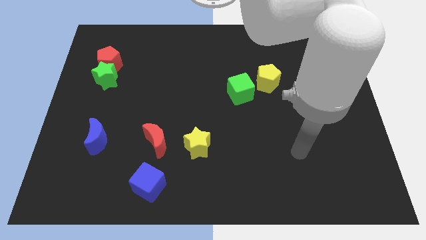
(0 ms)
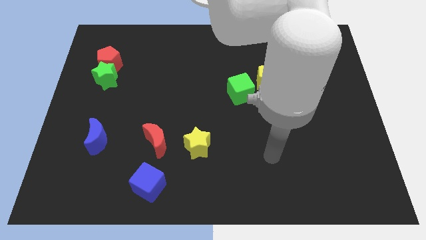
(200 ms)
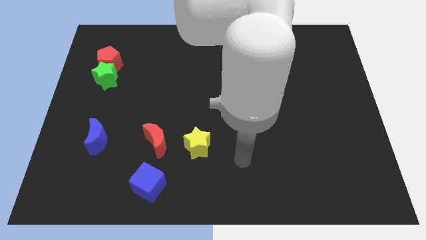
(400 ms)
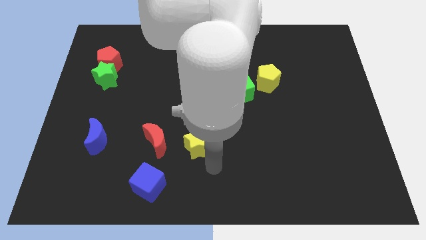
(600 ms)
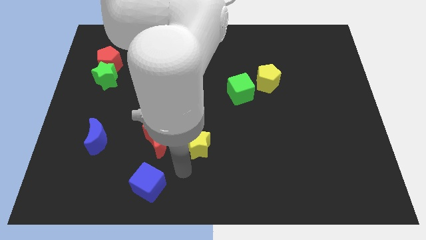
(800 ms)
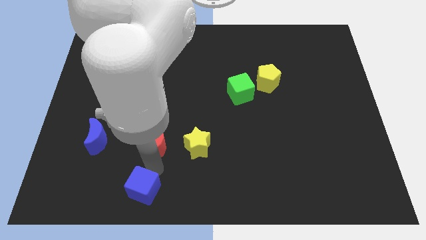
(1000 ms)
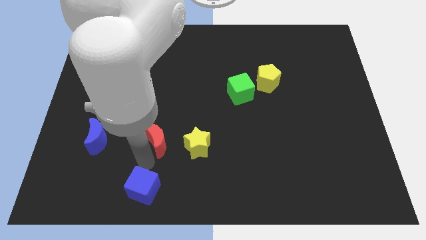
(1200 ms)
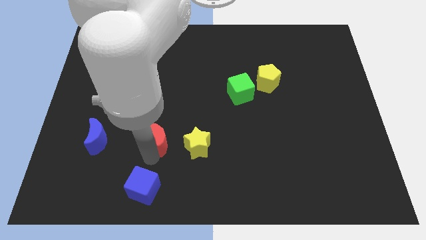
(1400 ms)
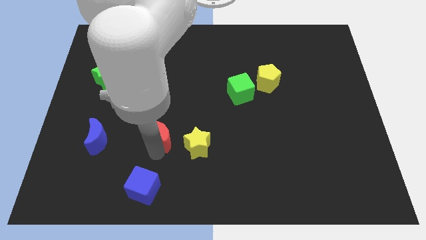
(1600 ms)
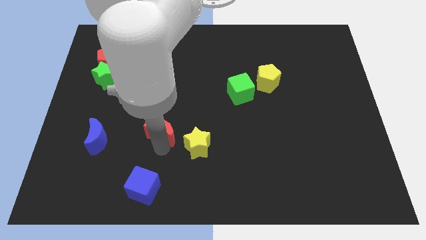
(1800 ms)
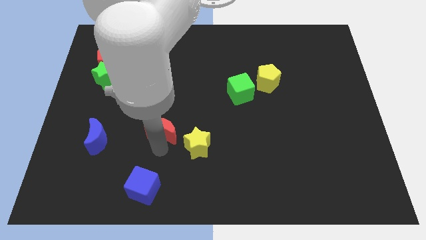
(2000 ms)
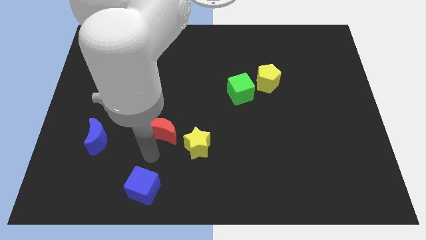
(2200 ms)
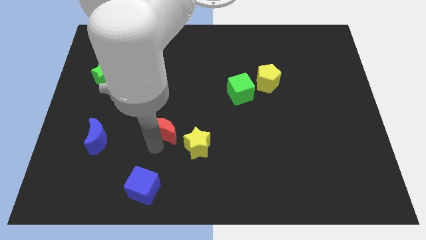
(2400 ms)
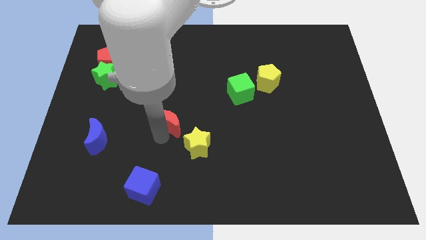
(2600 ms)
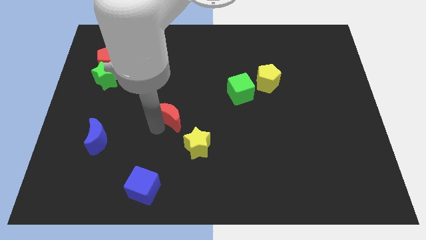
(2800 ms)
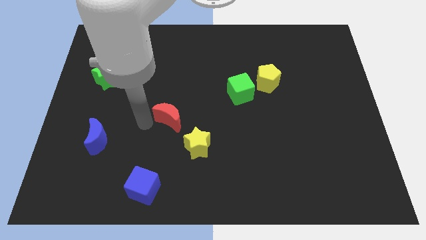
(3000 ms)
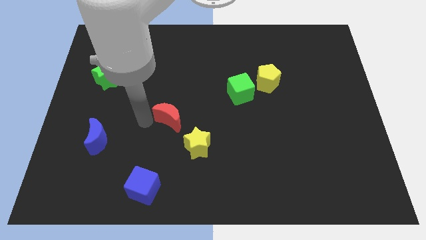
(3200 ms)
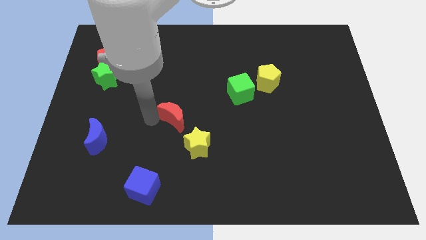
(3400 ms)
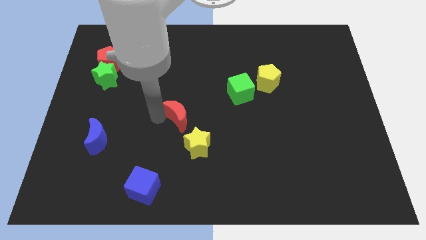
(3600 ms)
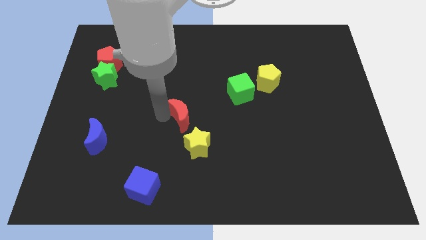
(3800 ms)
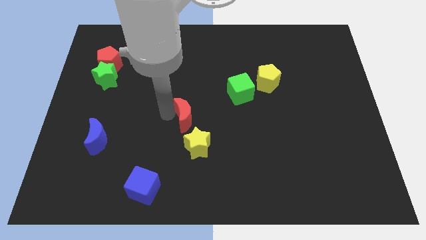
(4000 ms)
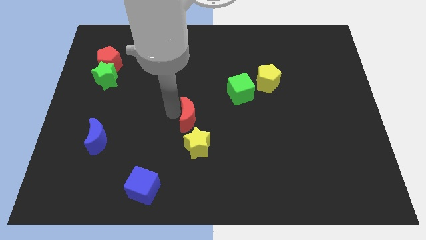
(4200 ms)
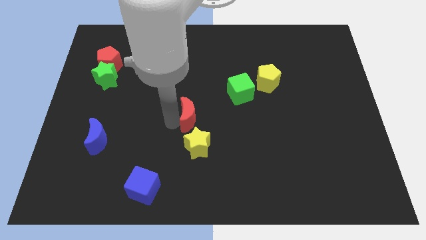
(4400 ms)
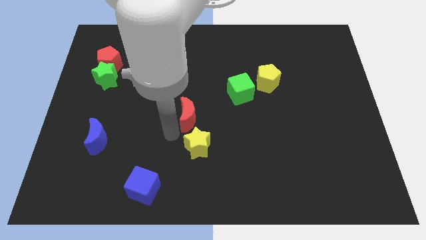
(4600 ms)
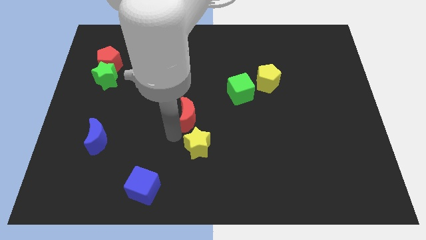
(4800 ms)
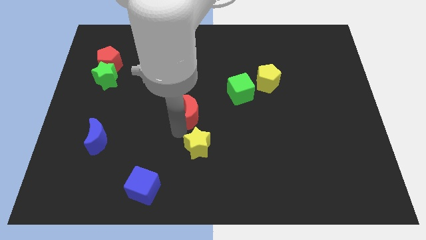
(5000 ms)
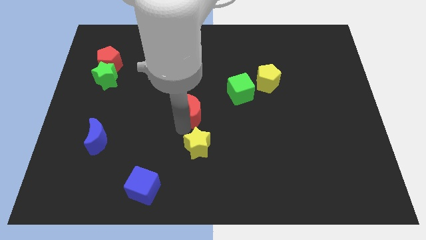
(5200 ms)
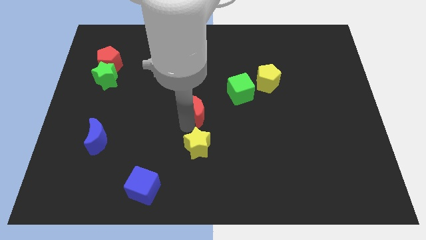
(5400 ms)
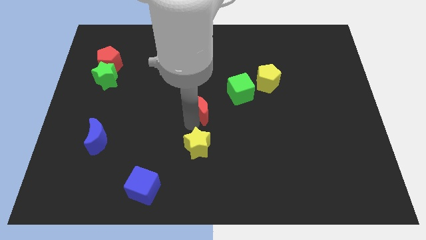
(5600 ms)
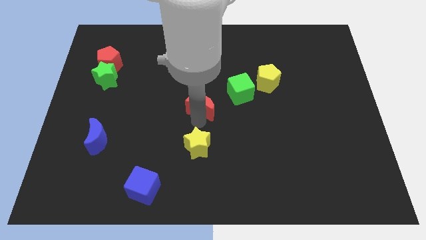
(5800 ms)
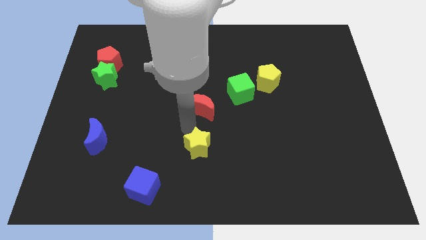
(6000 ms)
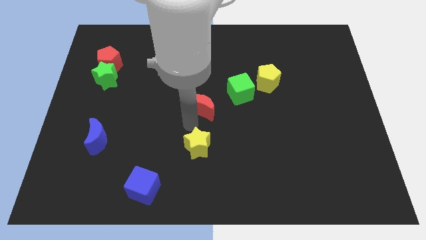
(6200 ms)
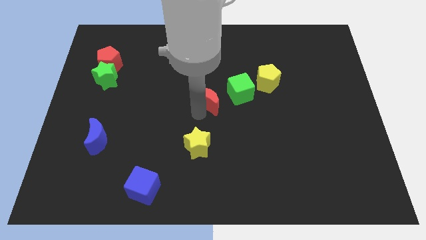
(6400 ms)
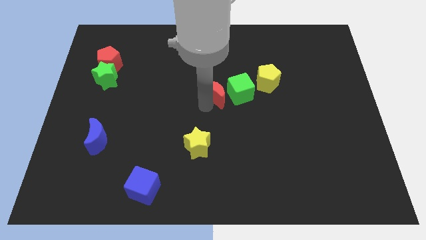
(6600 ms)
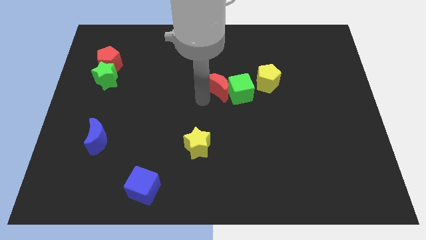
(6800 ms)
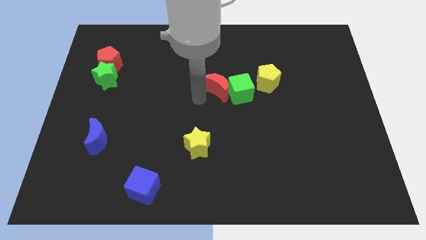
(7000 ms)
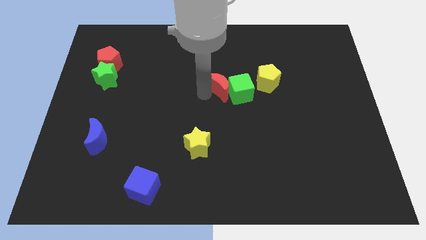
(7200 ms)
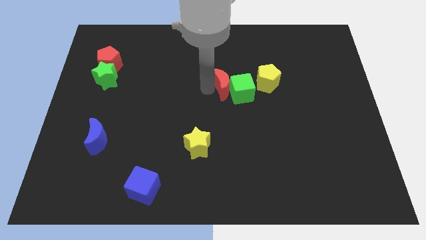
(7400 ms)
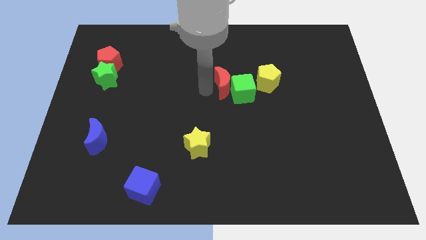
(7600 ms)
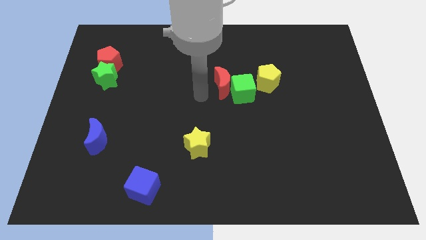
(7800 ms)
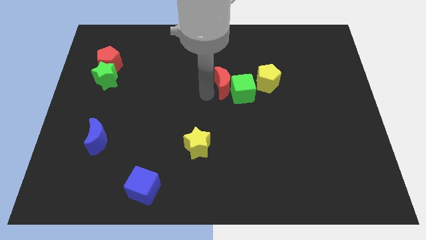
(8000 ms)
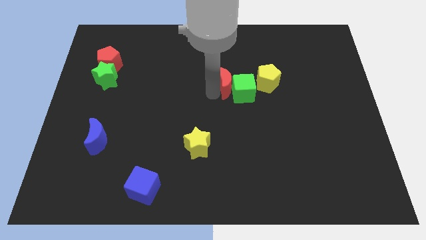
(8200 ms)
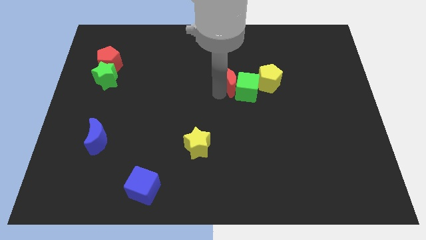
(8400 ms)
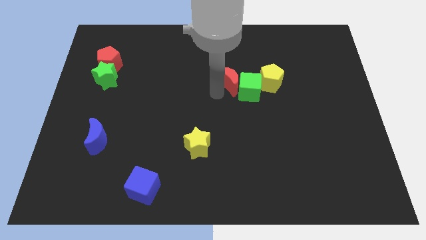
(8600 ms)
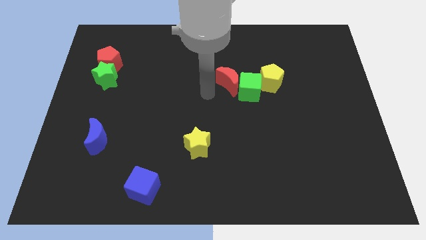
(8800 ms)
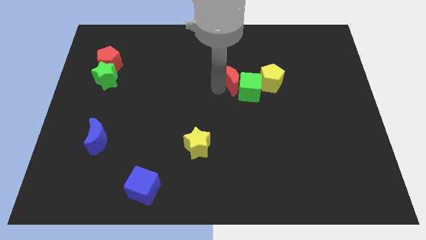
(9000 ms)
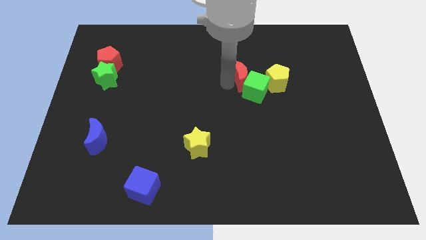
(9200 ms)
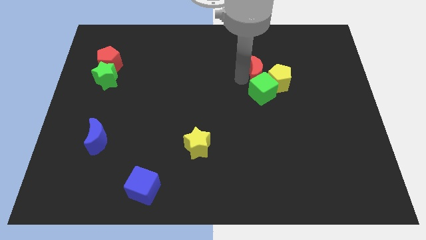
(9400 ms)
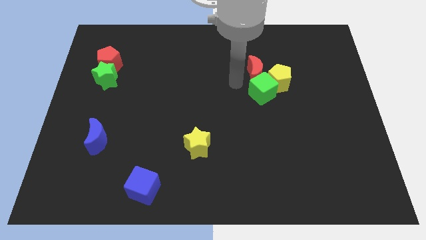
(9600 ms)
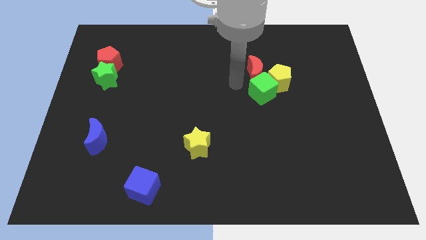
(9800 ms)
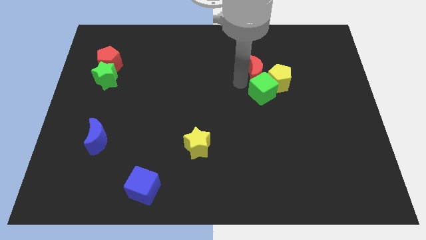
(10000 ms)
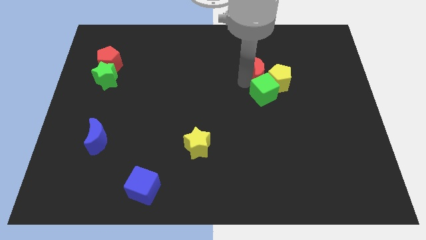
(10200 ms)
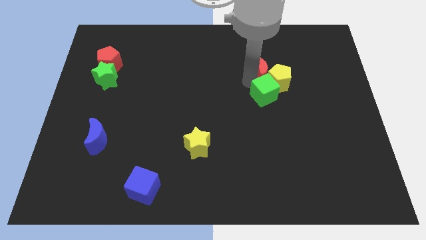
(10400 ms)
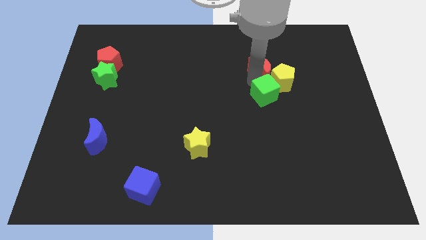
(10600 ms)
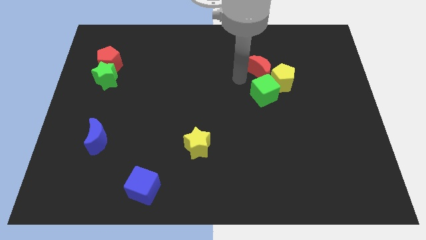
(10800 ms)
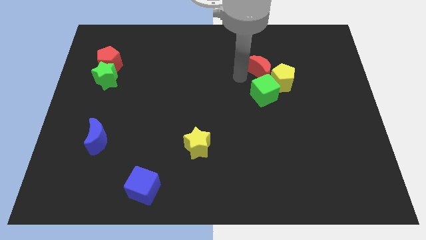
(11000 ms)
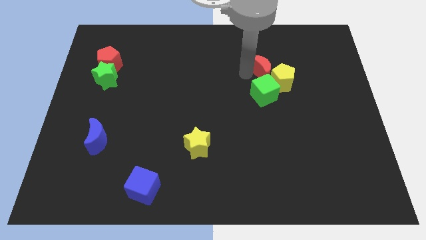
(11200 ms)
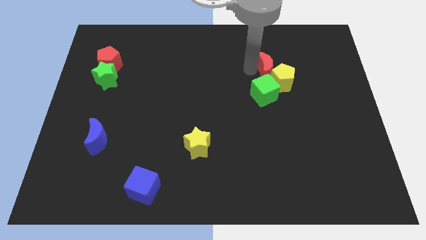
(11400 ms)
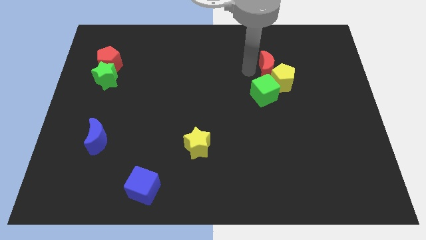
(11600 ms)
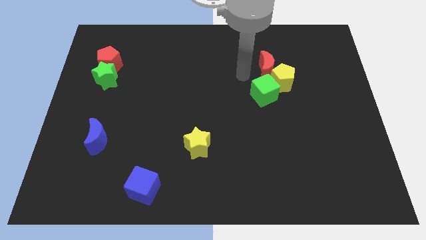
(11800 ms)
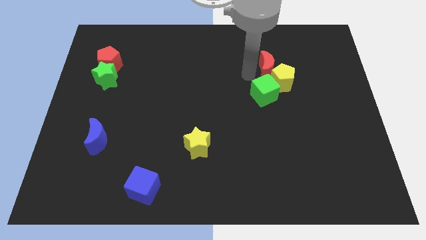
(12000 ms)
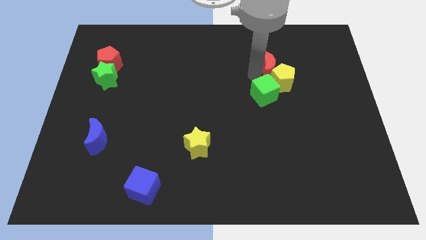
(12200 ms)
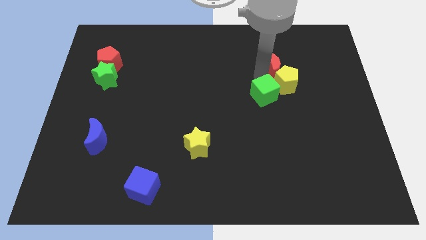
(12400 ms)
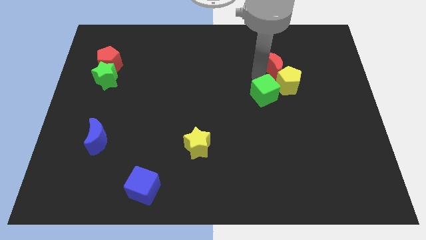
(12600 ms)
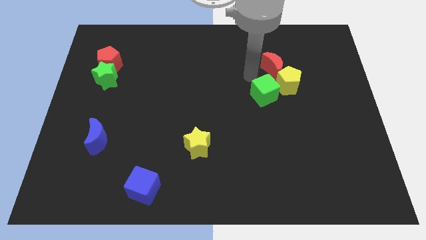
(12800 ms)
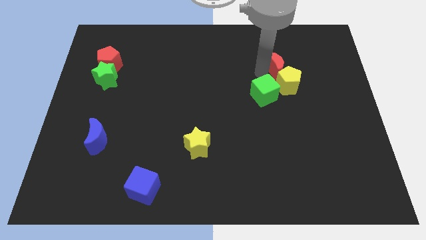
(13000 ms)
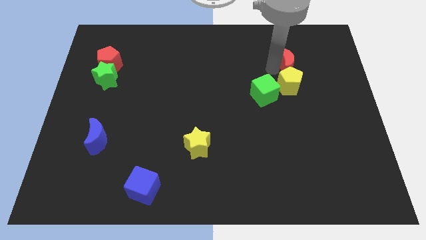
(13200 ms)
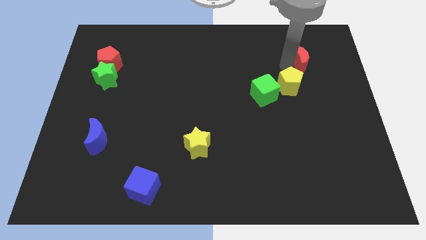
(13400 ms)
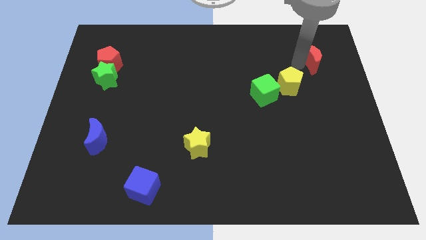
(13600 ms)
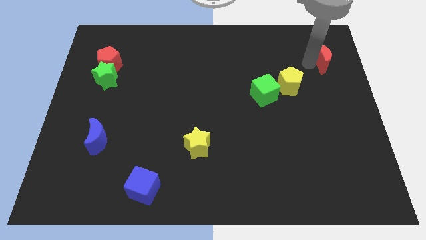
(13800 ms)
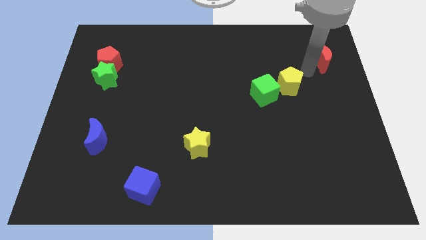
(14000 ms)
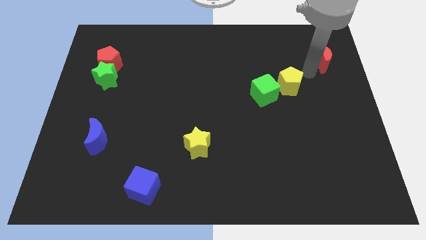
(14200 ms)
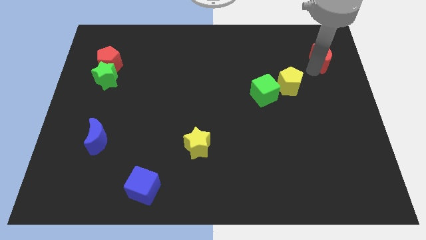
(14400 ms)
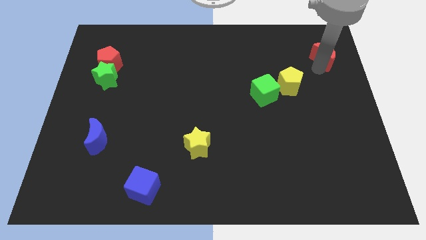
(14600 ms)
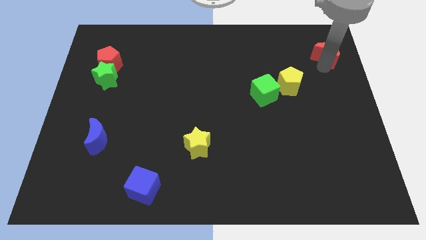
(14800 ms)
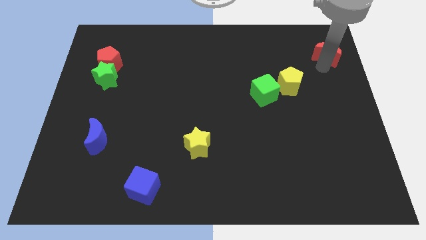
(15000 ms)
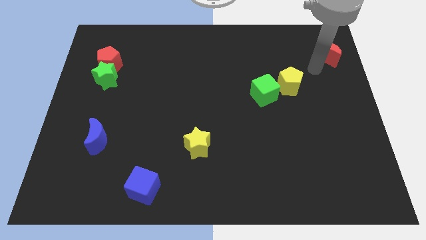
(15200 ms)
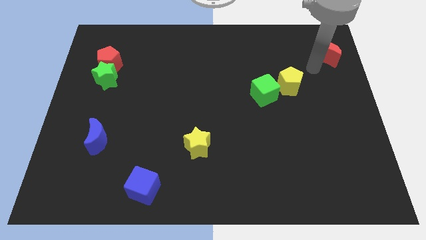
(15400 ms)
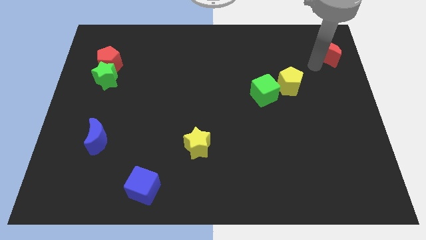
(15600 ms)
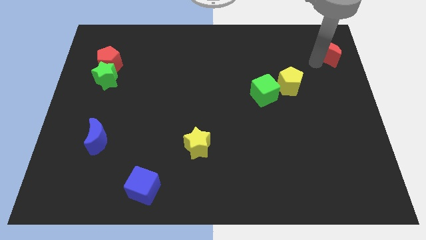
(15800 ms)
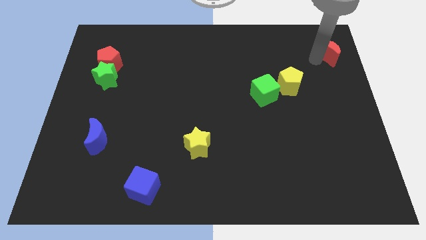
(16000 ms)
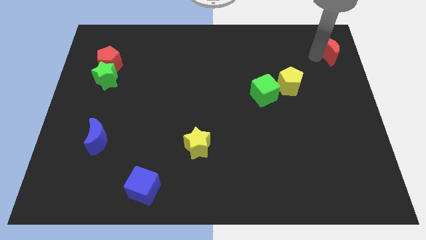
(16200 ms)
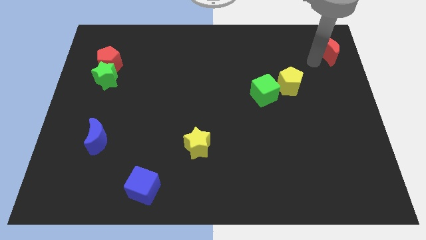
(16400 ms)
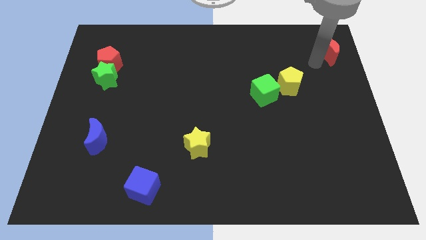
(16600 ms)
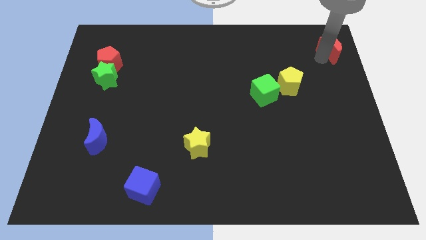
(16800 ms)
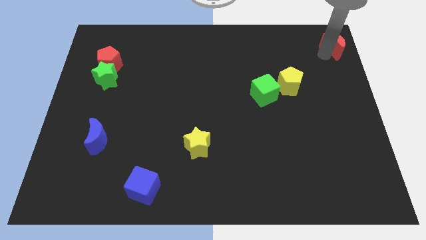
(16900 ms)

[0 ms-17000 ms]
put the red moon to the top right of the board
